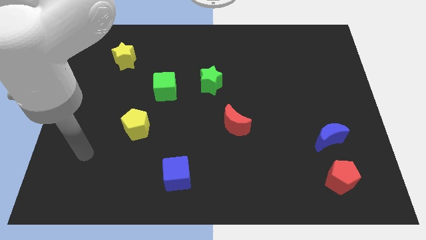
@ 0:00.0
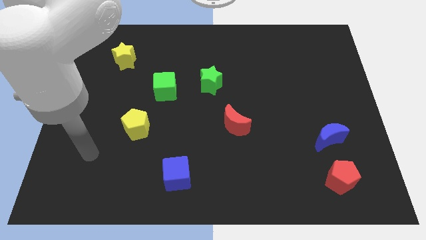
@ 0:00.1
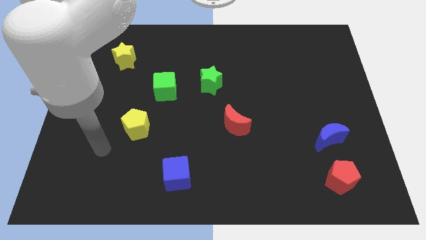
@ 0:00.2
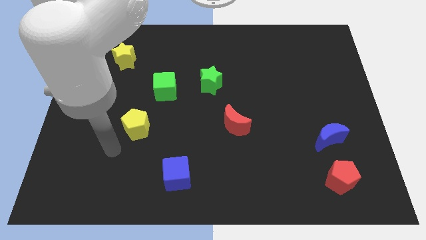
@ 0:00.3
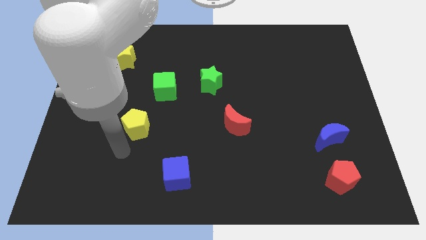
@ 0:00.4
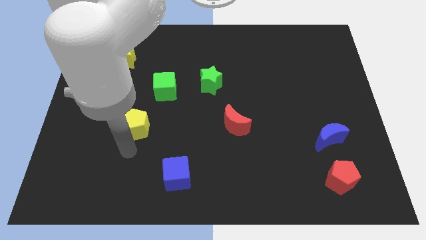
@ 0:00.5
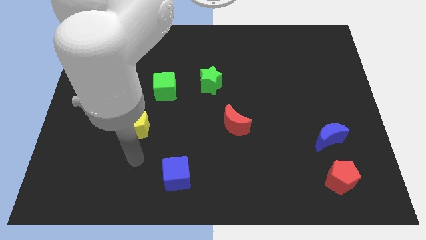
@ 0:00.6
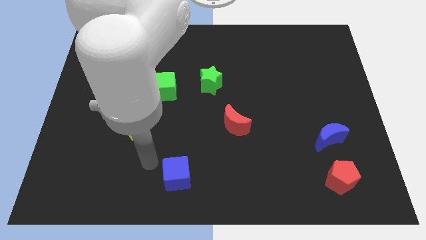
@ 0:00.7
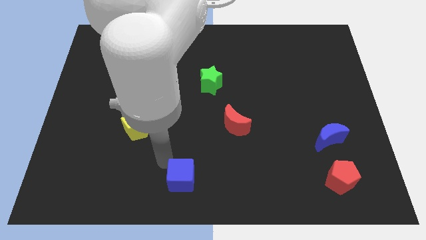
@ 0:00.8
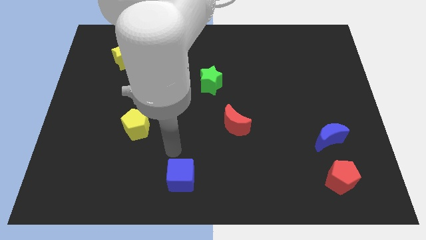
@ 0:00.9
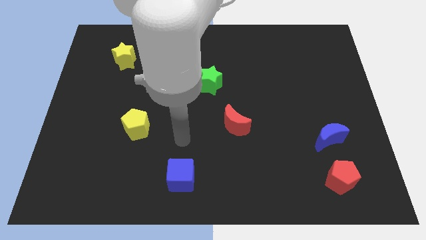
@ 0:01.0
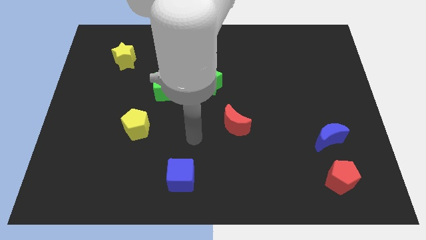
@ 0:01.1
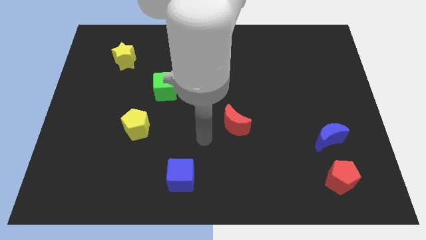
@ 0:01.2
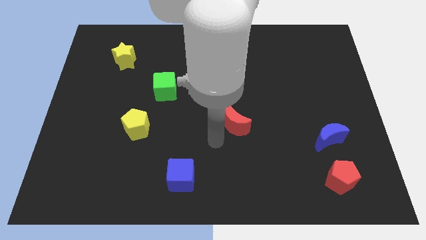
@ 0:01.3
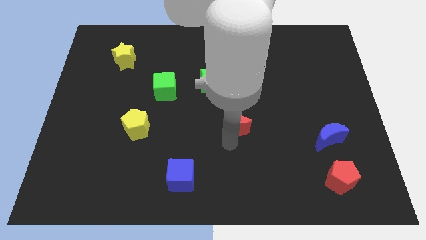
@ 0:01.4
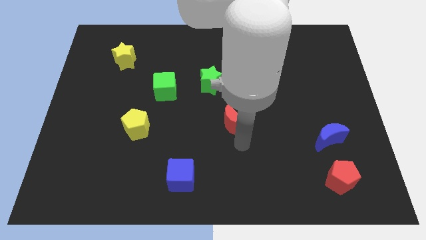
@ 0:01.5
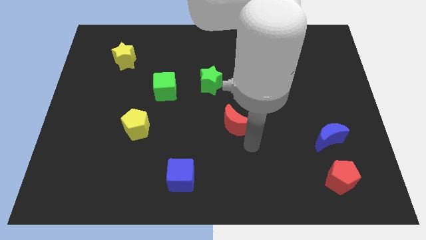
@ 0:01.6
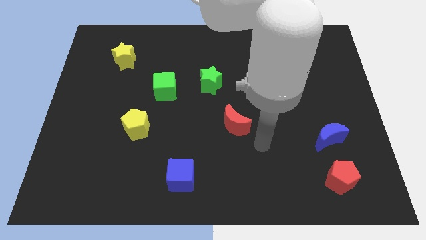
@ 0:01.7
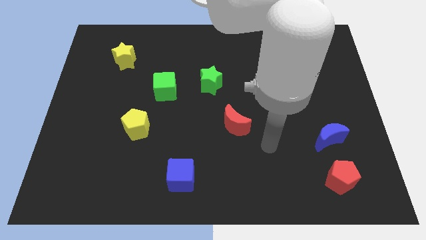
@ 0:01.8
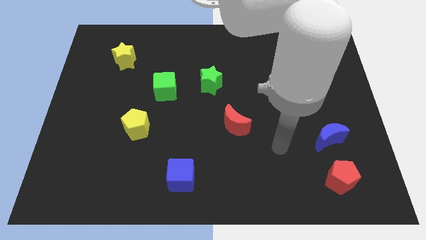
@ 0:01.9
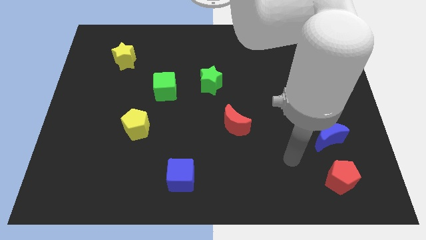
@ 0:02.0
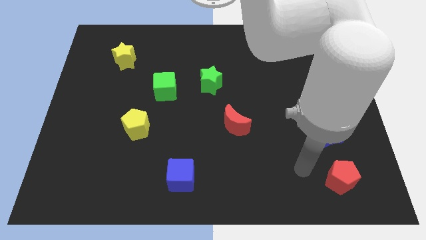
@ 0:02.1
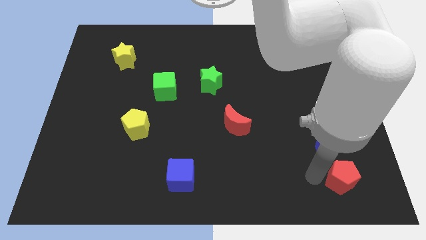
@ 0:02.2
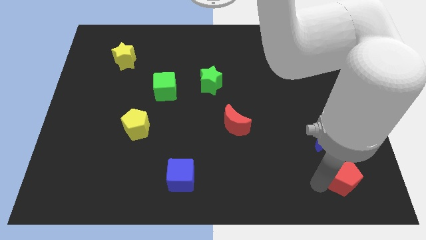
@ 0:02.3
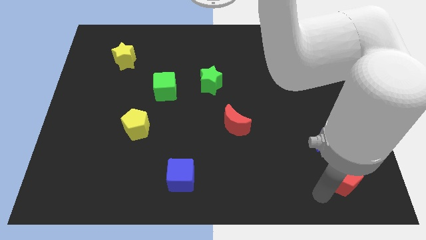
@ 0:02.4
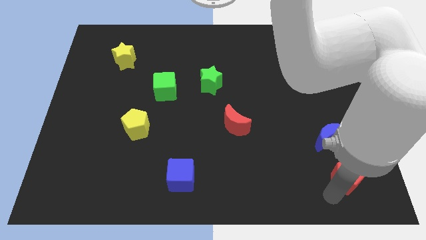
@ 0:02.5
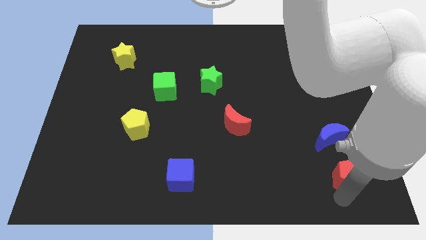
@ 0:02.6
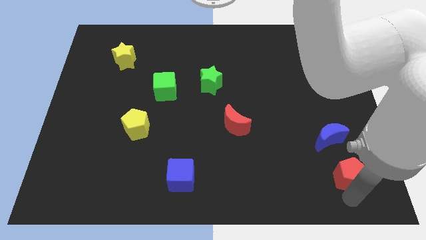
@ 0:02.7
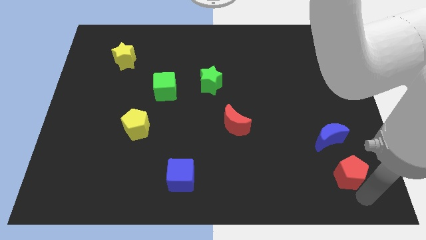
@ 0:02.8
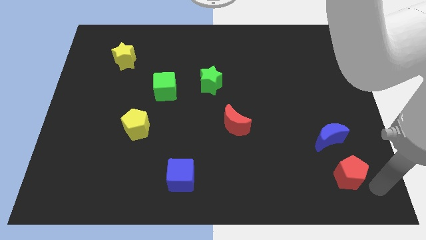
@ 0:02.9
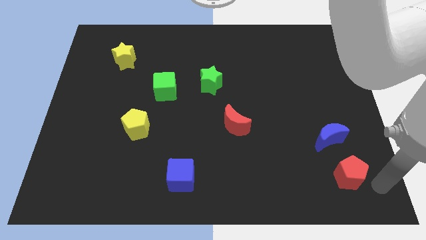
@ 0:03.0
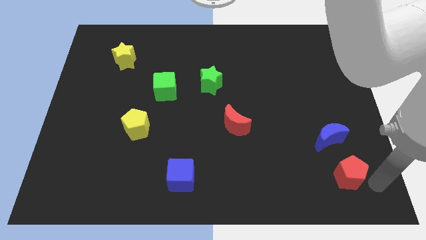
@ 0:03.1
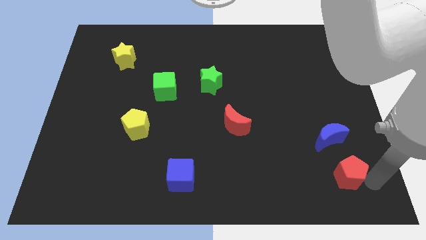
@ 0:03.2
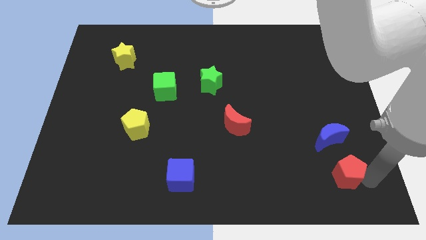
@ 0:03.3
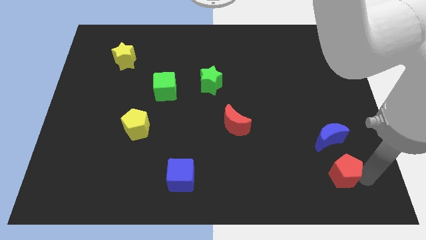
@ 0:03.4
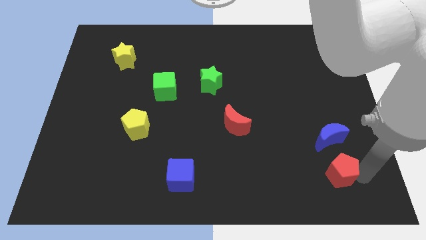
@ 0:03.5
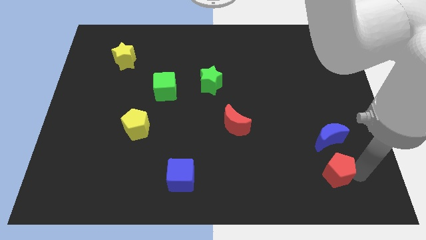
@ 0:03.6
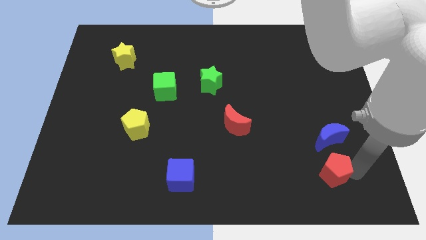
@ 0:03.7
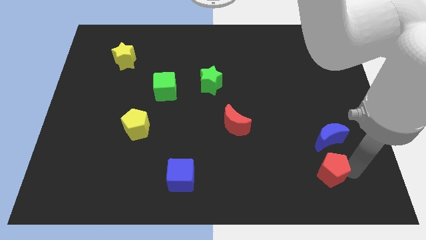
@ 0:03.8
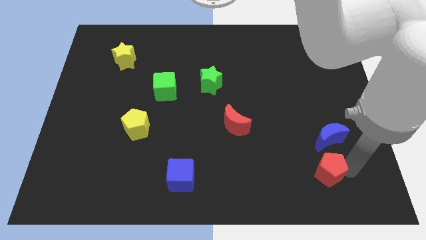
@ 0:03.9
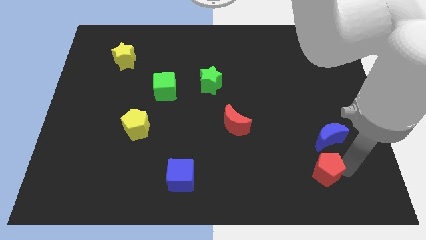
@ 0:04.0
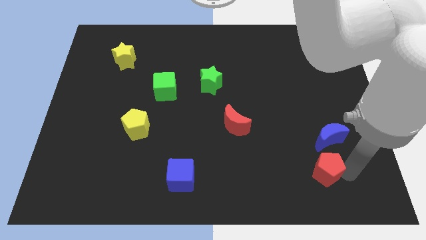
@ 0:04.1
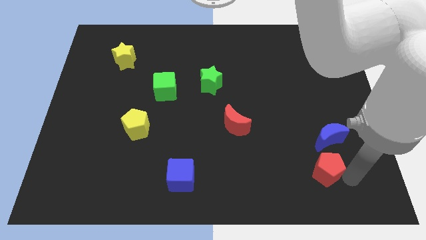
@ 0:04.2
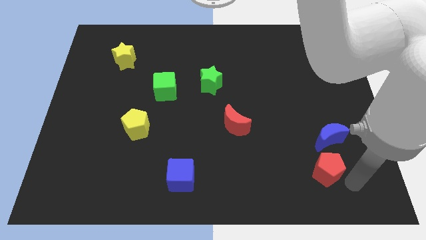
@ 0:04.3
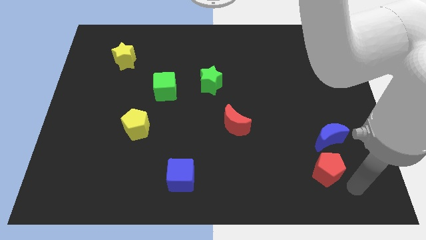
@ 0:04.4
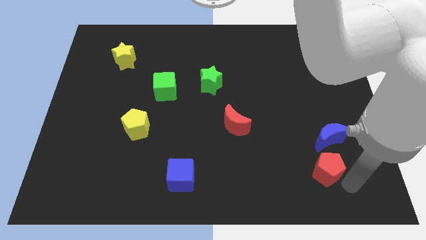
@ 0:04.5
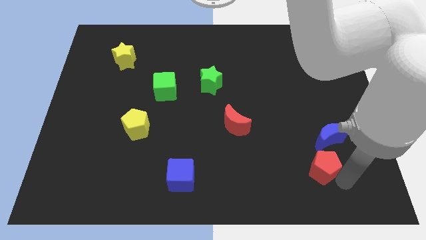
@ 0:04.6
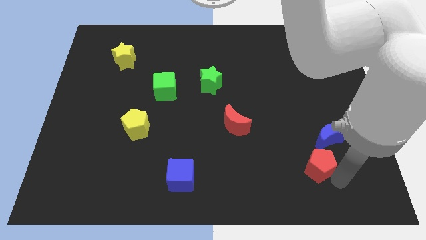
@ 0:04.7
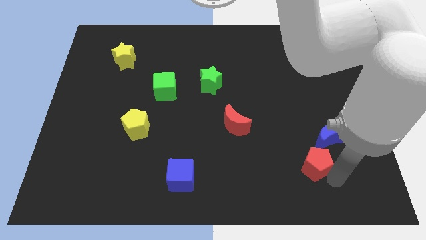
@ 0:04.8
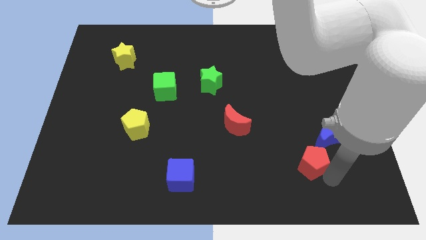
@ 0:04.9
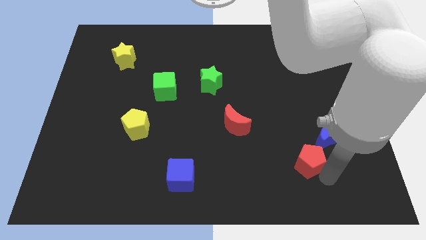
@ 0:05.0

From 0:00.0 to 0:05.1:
slightly slide the red pentagon diagonally up and to the left

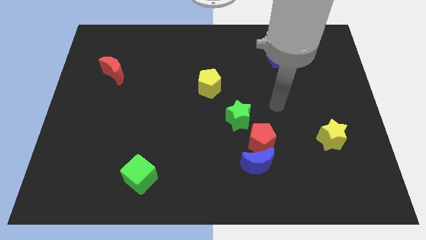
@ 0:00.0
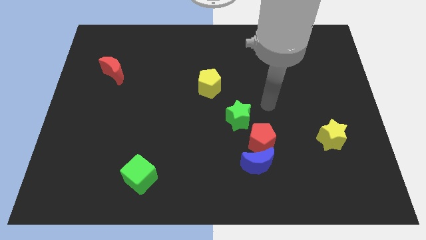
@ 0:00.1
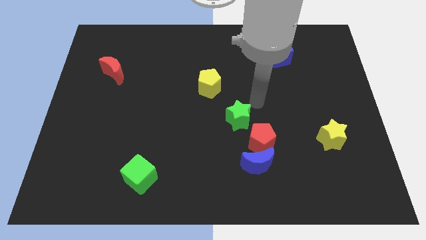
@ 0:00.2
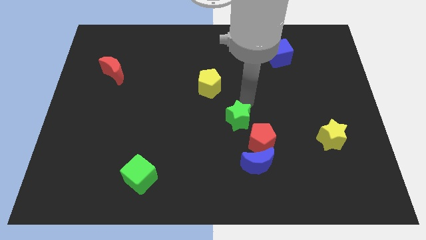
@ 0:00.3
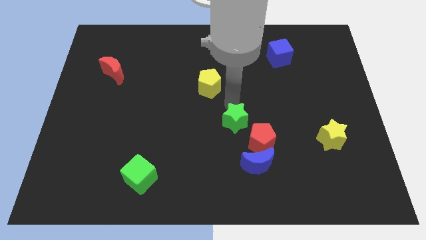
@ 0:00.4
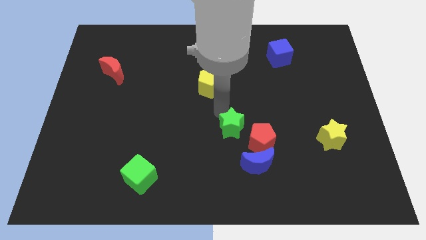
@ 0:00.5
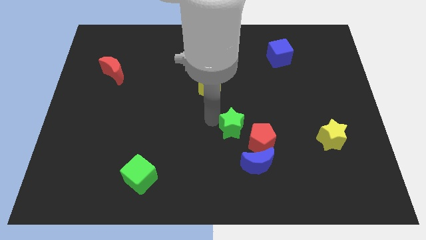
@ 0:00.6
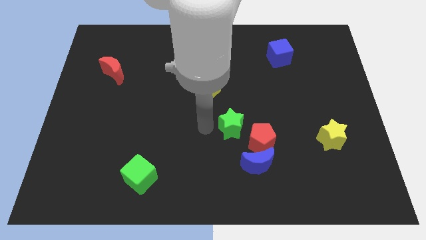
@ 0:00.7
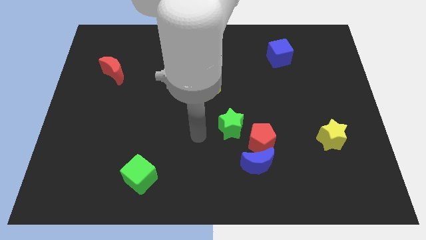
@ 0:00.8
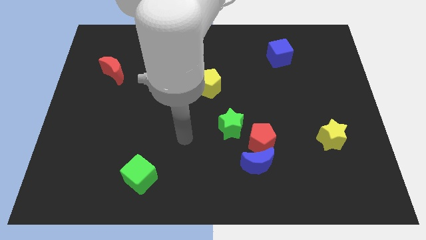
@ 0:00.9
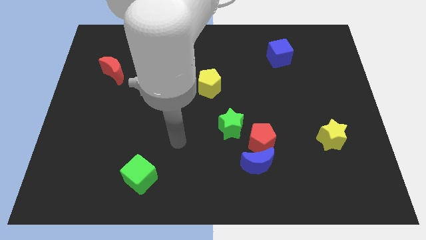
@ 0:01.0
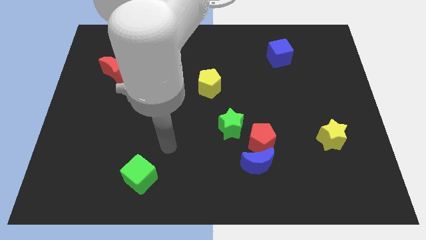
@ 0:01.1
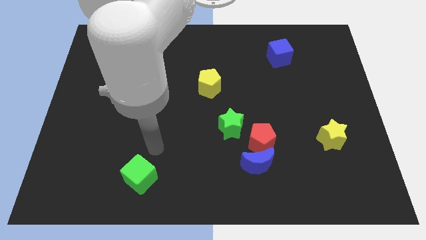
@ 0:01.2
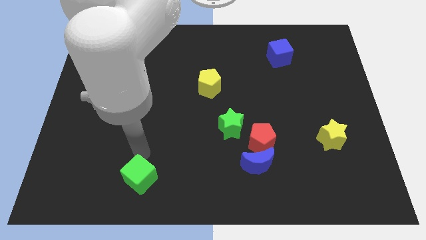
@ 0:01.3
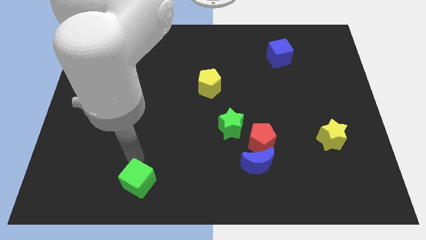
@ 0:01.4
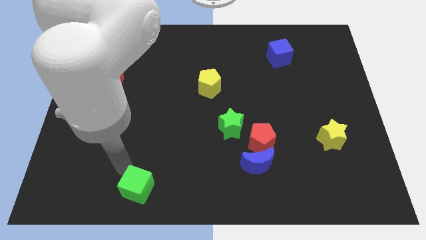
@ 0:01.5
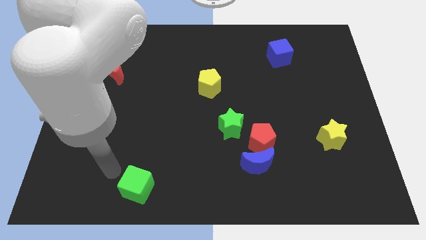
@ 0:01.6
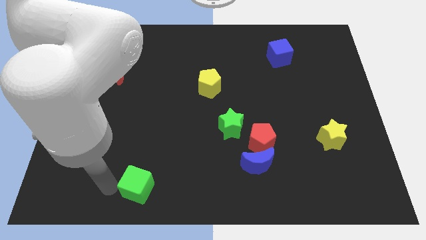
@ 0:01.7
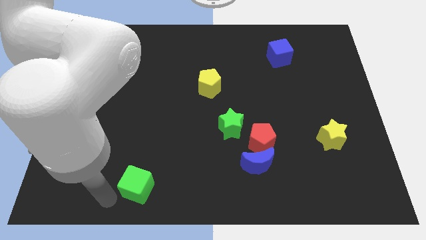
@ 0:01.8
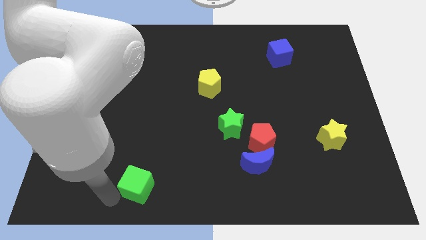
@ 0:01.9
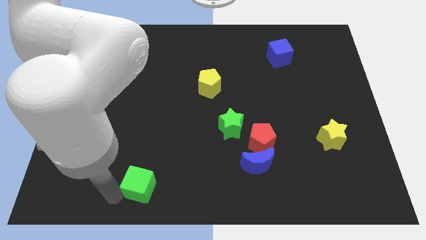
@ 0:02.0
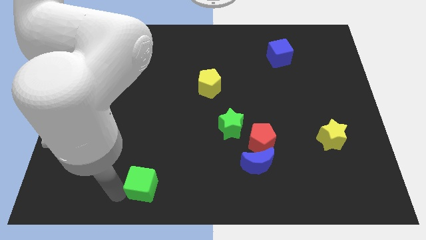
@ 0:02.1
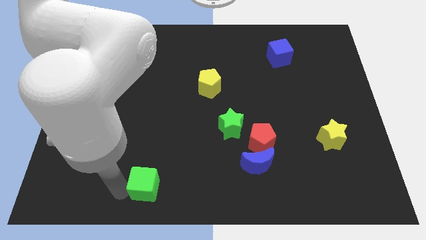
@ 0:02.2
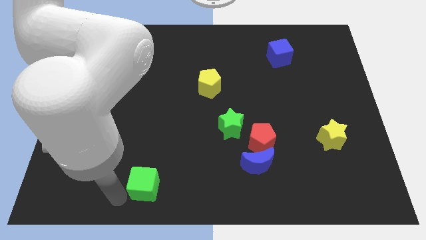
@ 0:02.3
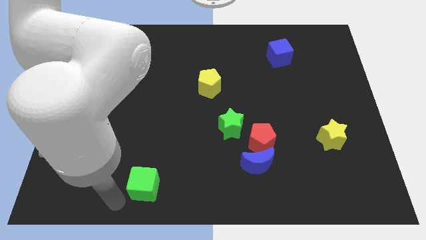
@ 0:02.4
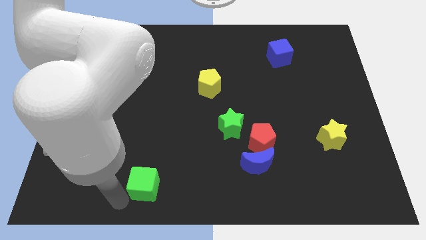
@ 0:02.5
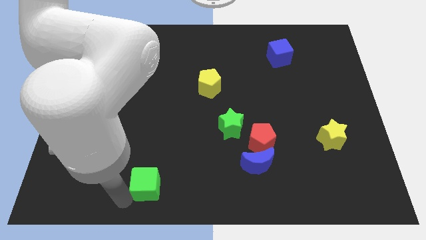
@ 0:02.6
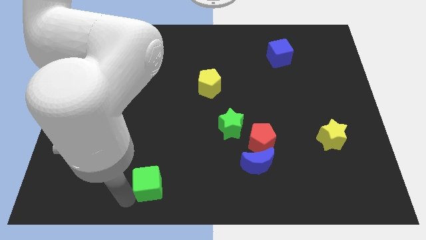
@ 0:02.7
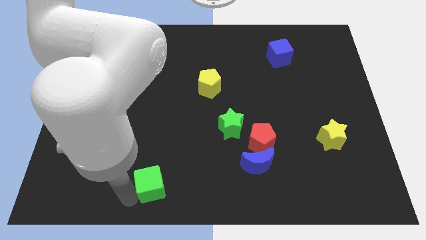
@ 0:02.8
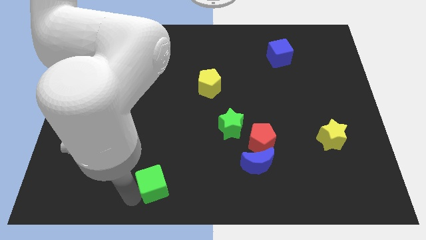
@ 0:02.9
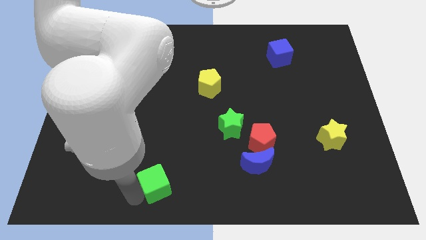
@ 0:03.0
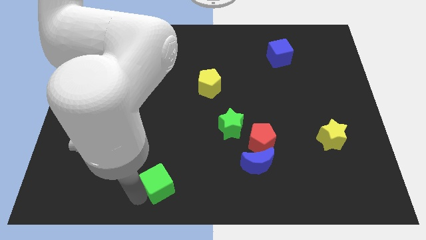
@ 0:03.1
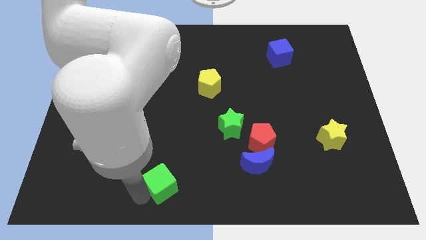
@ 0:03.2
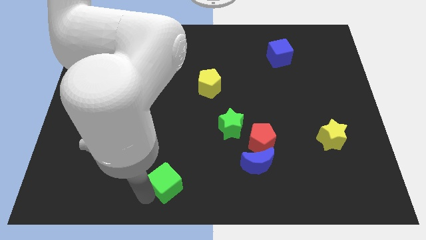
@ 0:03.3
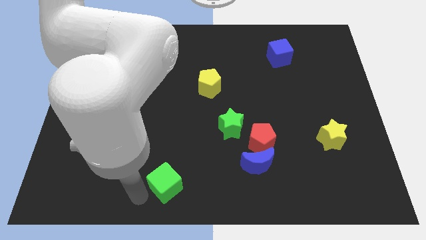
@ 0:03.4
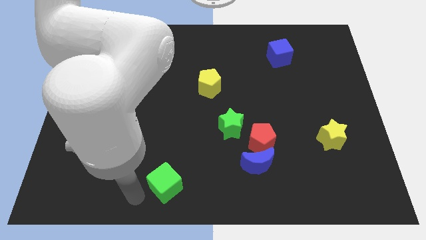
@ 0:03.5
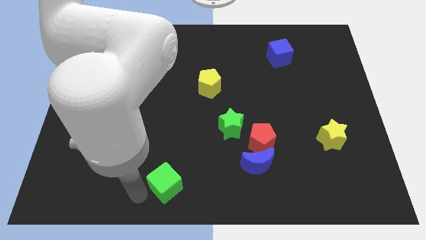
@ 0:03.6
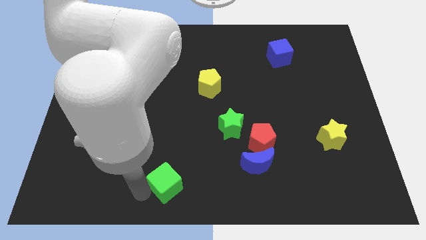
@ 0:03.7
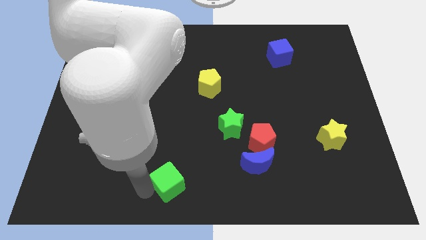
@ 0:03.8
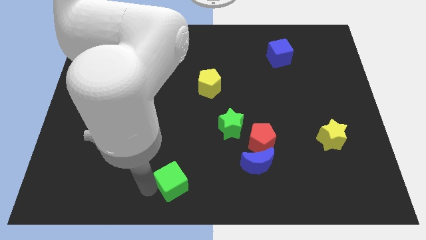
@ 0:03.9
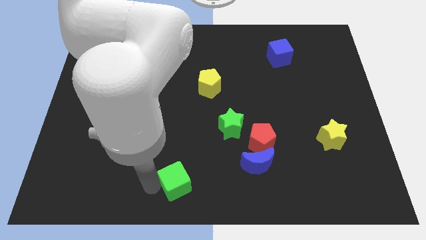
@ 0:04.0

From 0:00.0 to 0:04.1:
slide the green cube a bit to the right
